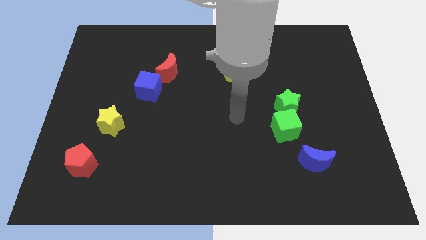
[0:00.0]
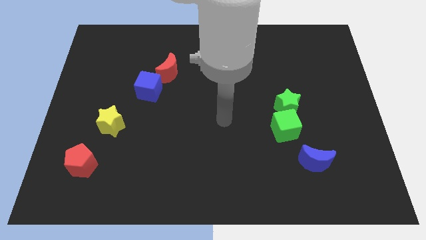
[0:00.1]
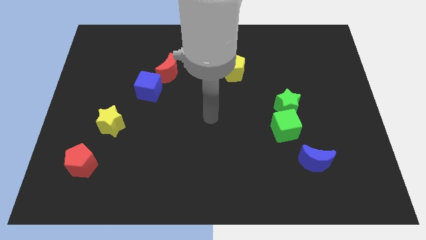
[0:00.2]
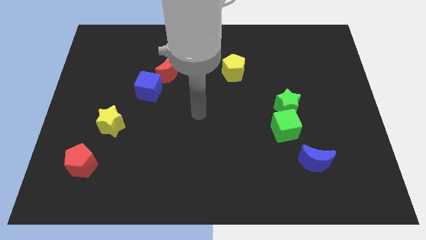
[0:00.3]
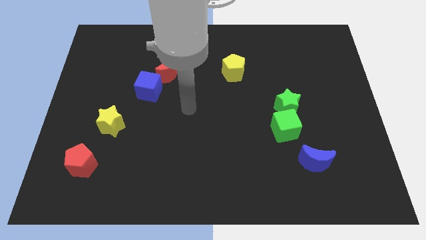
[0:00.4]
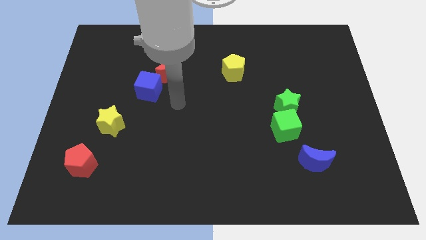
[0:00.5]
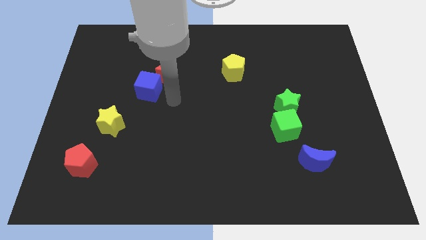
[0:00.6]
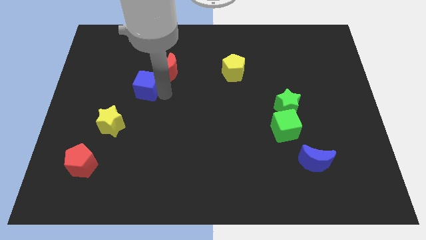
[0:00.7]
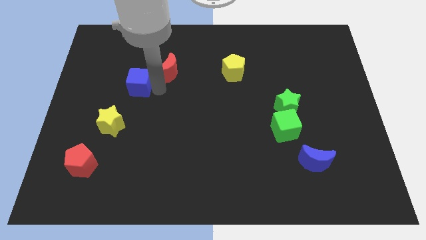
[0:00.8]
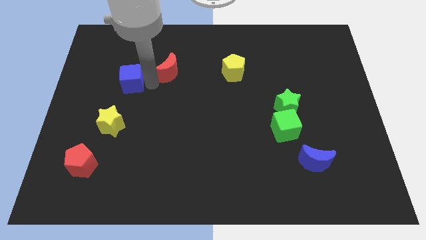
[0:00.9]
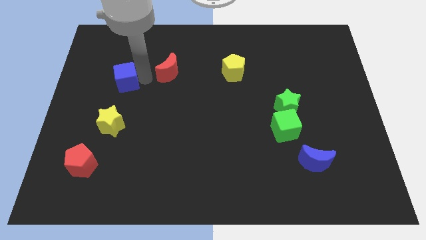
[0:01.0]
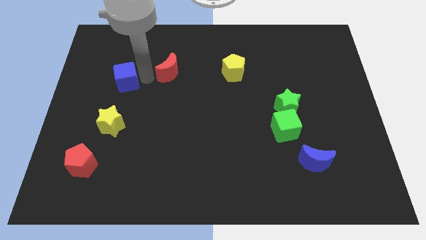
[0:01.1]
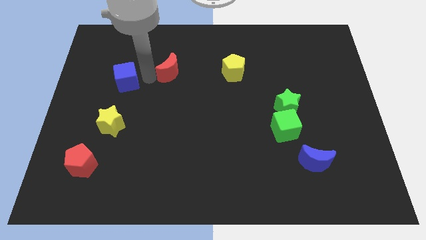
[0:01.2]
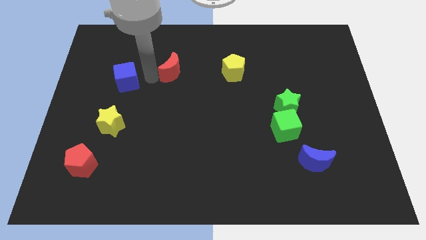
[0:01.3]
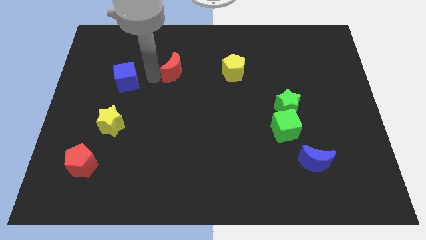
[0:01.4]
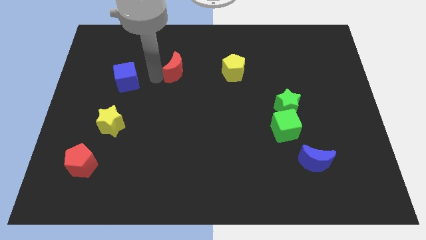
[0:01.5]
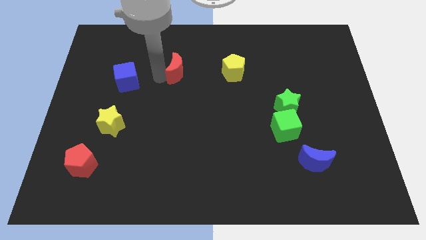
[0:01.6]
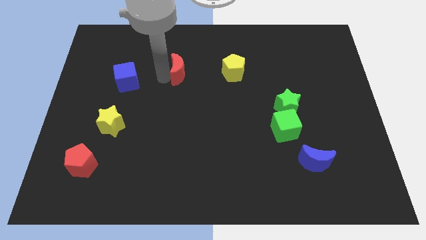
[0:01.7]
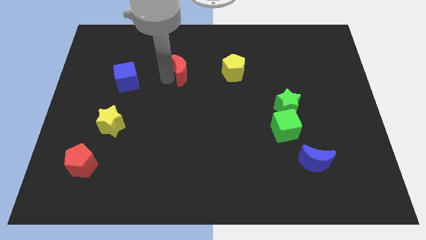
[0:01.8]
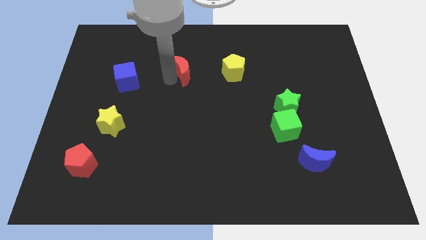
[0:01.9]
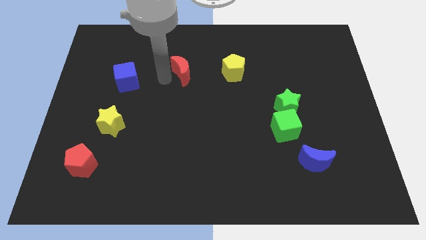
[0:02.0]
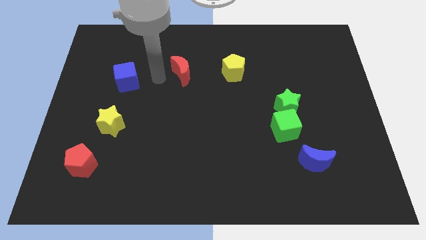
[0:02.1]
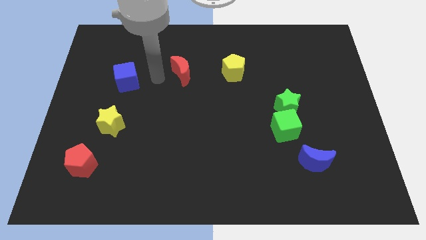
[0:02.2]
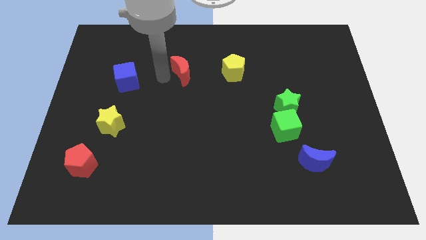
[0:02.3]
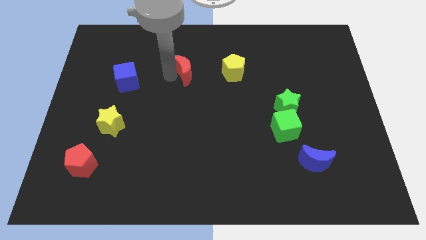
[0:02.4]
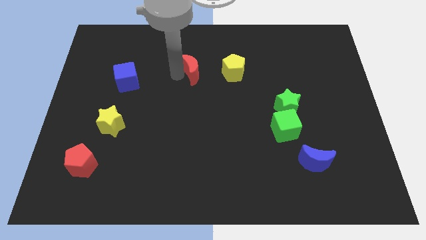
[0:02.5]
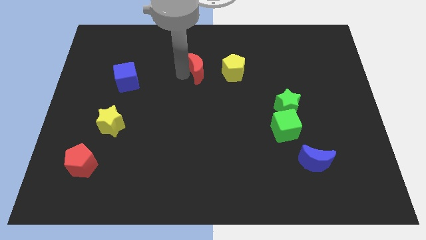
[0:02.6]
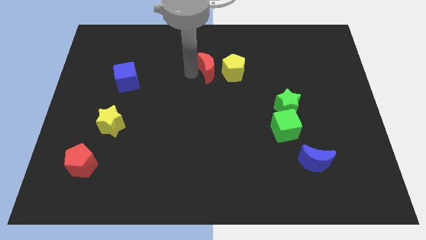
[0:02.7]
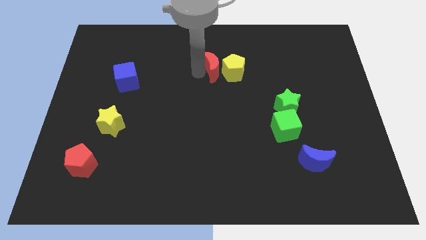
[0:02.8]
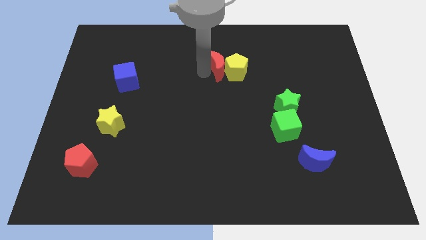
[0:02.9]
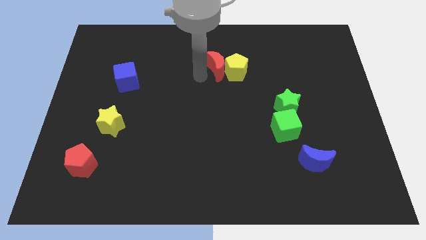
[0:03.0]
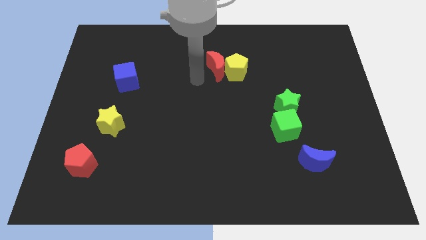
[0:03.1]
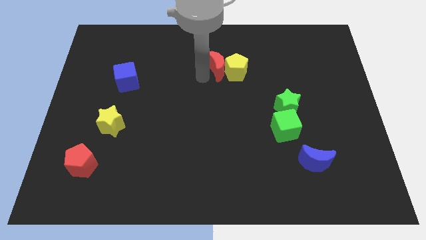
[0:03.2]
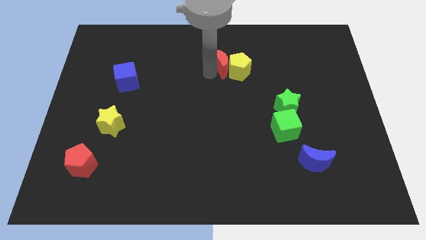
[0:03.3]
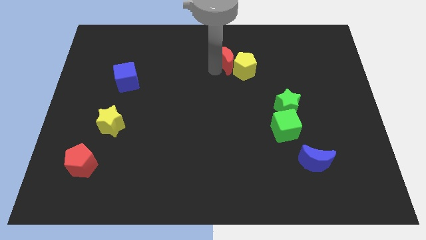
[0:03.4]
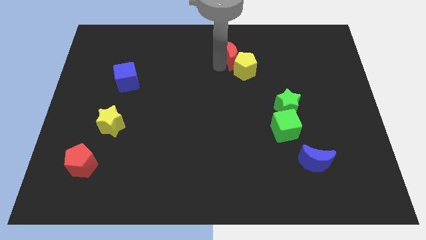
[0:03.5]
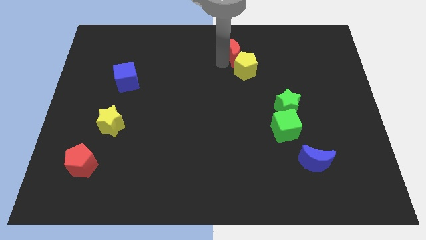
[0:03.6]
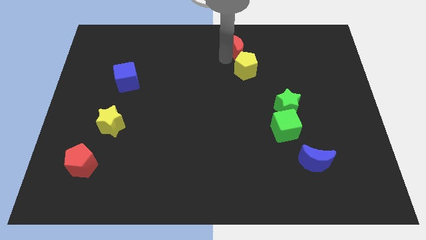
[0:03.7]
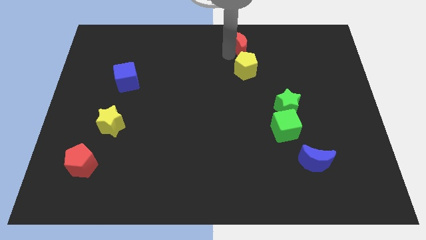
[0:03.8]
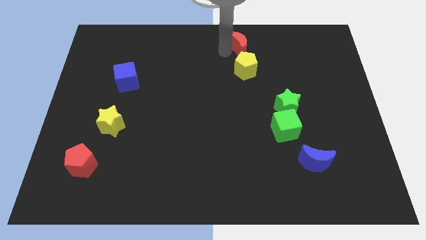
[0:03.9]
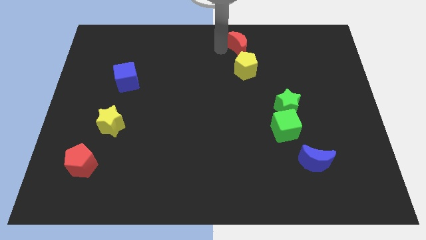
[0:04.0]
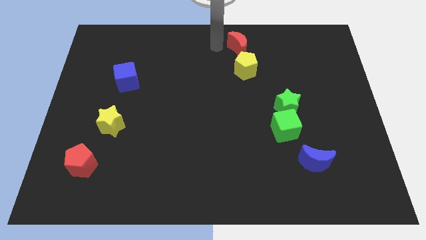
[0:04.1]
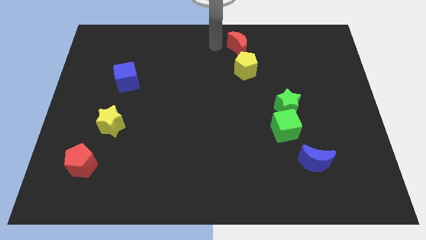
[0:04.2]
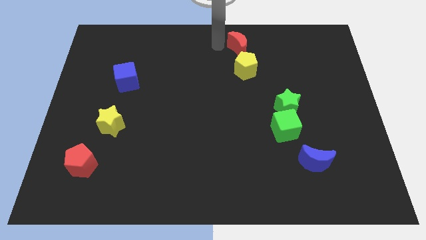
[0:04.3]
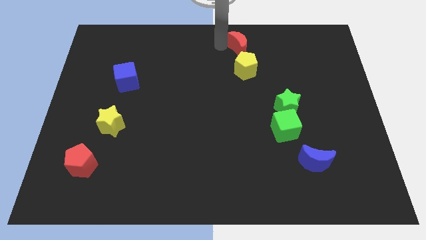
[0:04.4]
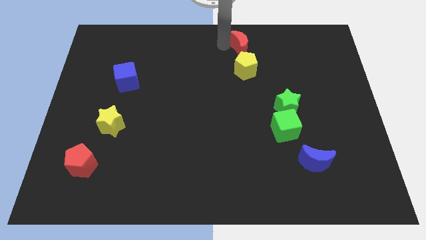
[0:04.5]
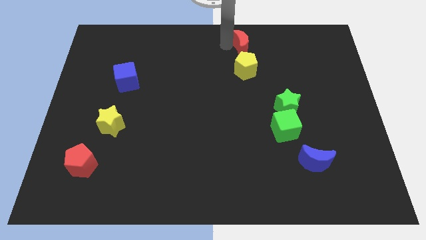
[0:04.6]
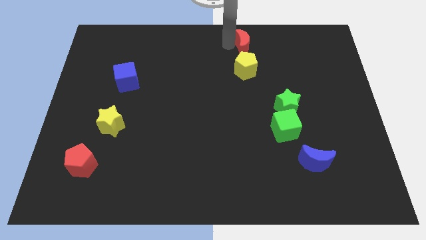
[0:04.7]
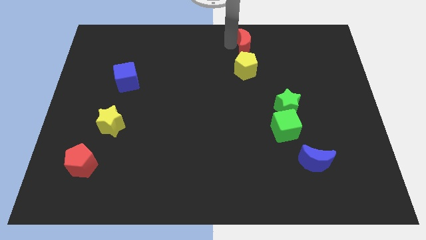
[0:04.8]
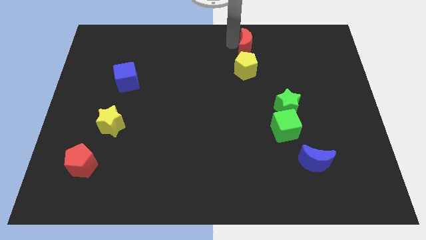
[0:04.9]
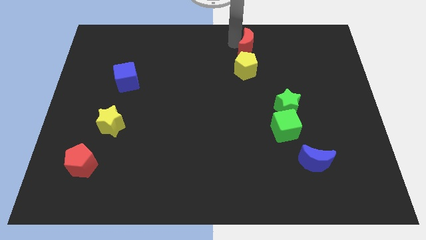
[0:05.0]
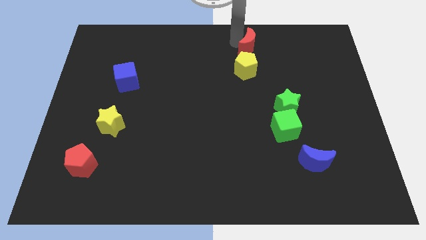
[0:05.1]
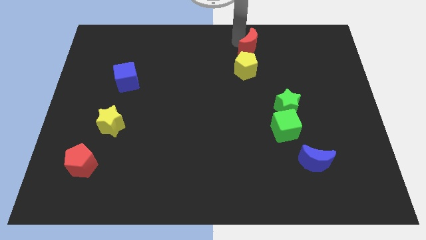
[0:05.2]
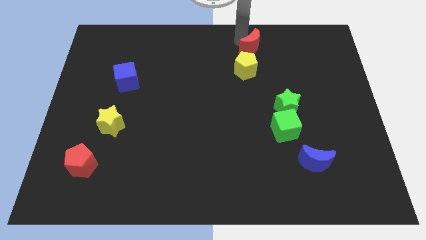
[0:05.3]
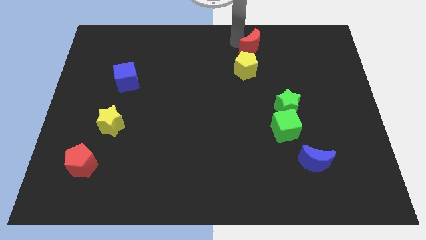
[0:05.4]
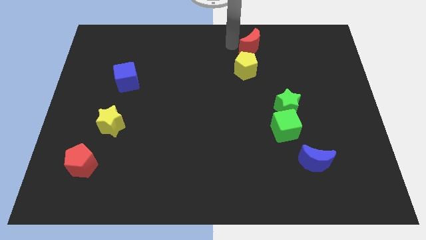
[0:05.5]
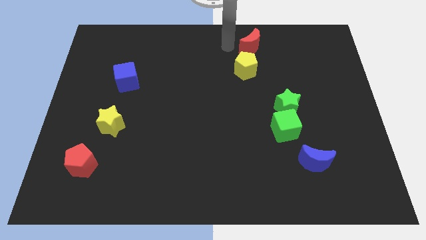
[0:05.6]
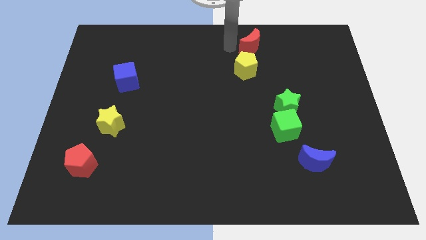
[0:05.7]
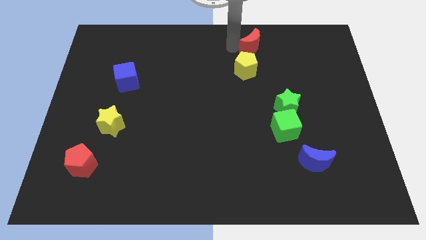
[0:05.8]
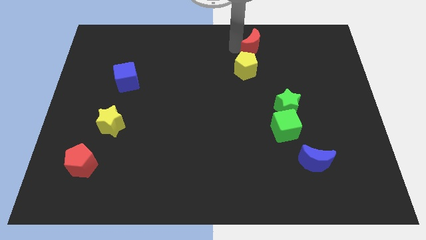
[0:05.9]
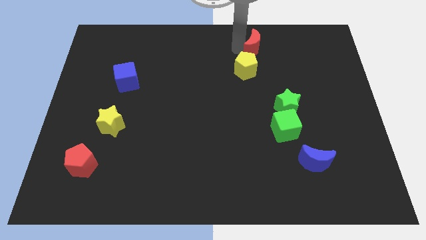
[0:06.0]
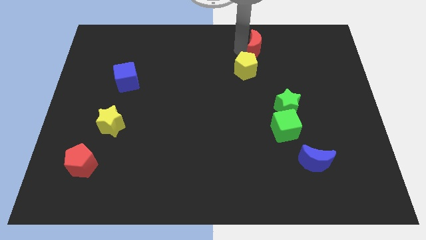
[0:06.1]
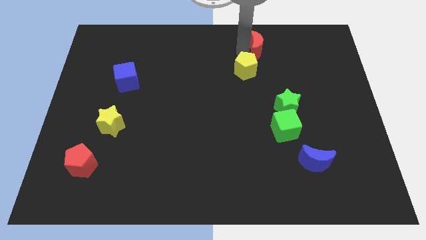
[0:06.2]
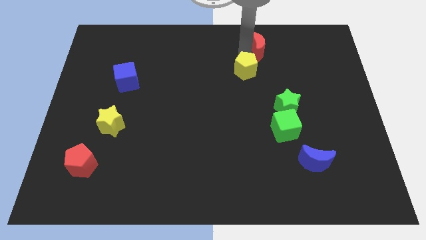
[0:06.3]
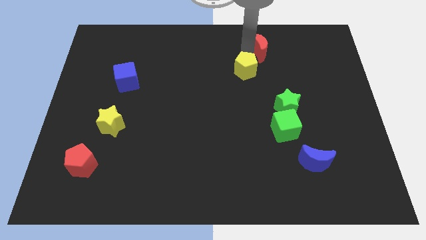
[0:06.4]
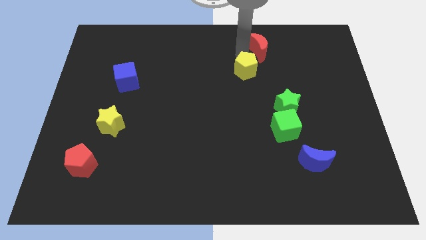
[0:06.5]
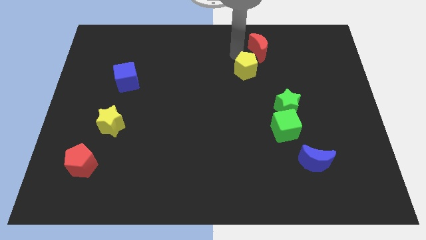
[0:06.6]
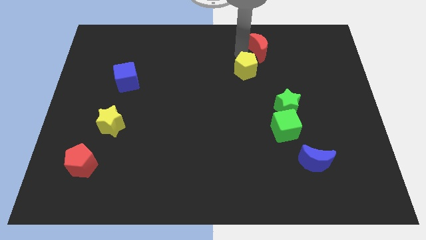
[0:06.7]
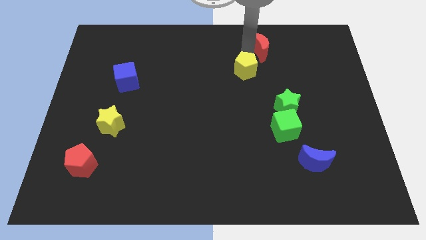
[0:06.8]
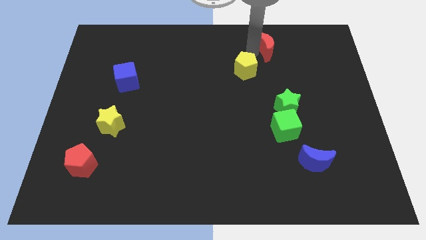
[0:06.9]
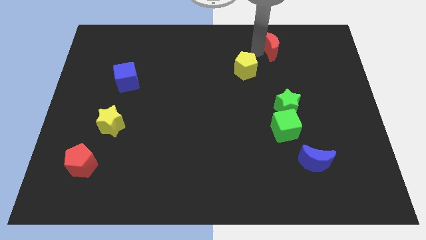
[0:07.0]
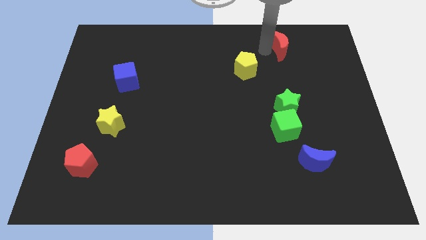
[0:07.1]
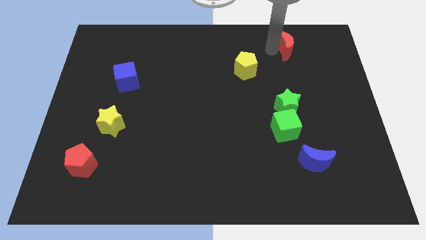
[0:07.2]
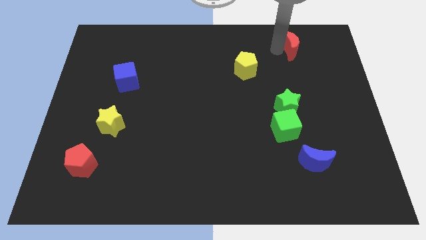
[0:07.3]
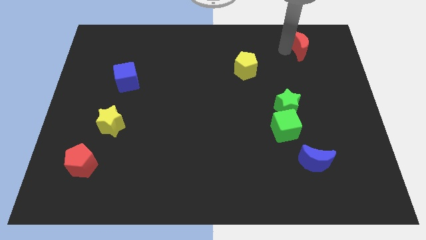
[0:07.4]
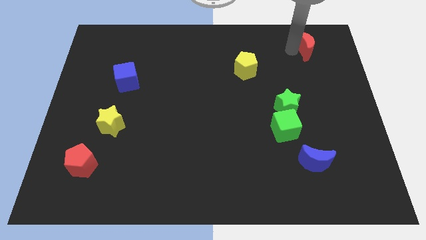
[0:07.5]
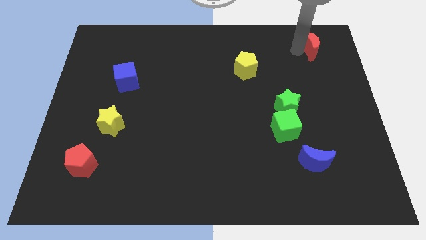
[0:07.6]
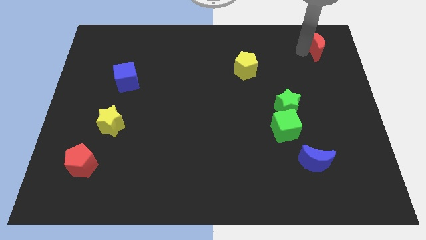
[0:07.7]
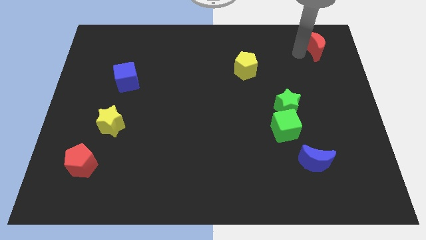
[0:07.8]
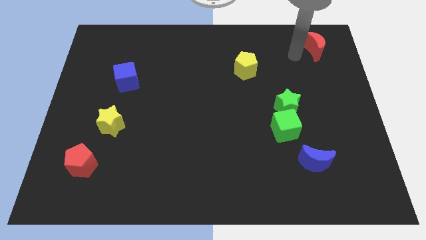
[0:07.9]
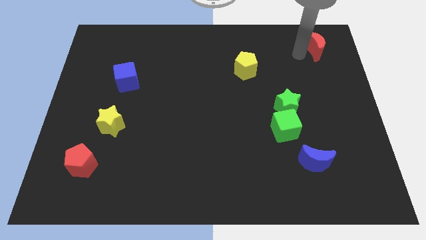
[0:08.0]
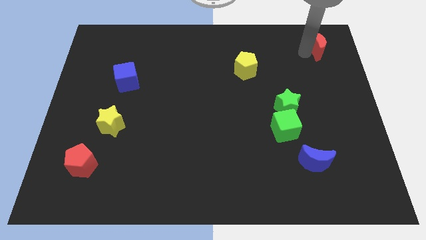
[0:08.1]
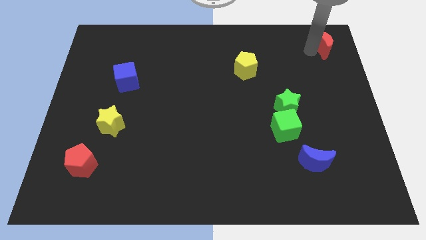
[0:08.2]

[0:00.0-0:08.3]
move the red moon to the top right corner
